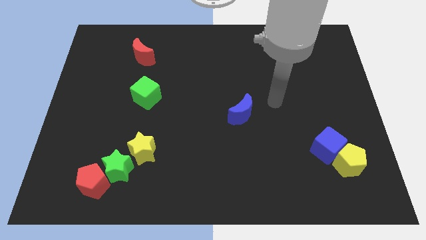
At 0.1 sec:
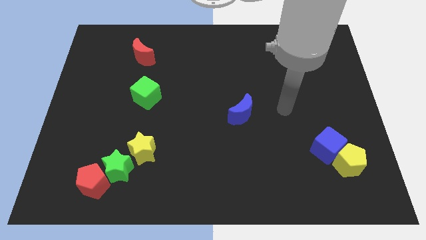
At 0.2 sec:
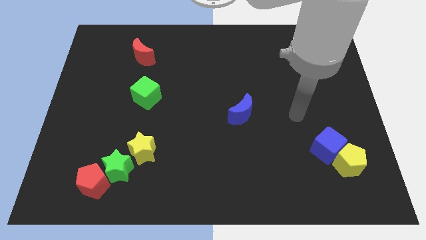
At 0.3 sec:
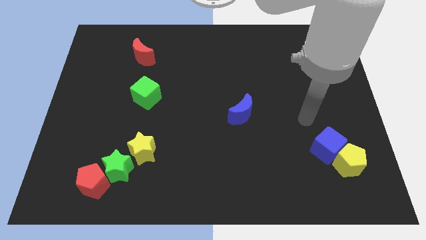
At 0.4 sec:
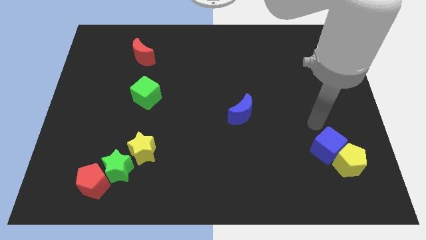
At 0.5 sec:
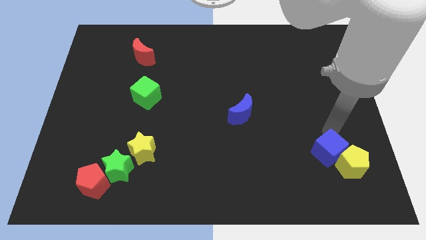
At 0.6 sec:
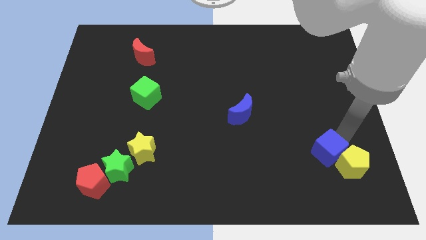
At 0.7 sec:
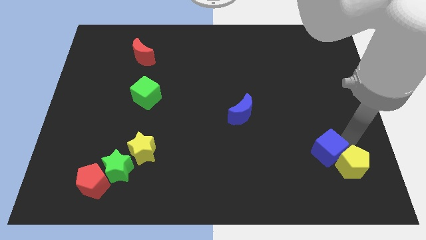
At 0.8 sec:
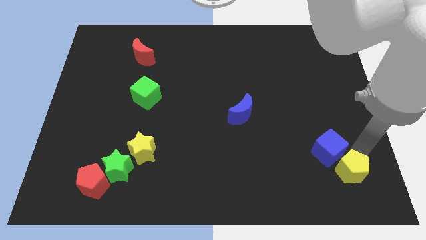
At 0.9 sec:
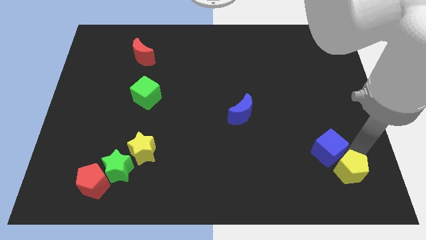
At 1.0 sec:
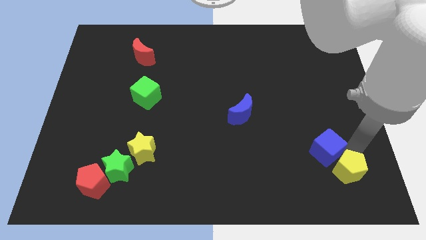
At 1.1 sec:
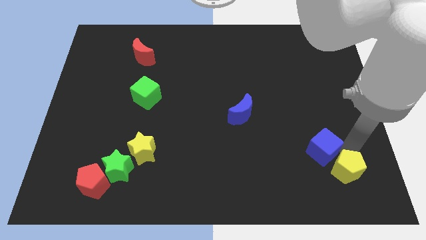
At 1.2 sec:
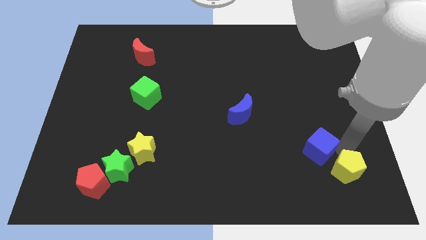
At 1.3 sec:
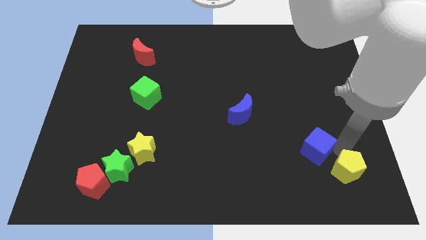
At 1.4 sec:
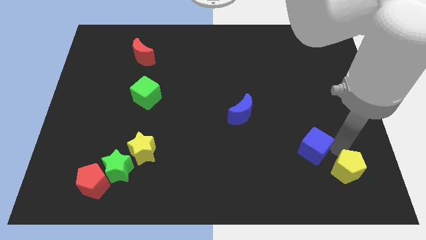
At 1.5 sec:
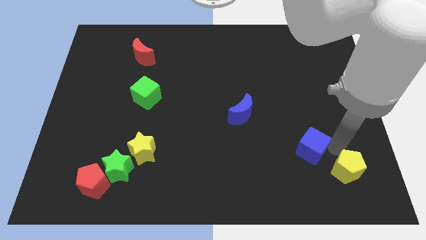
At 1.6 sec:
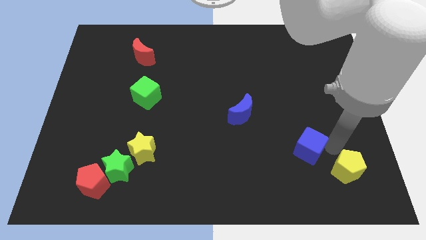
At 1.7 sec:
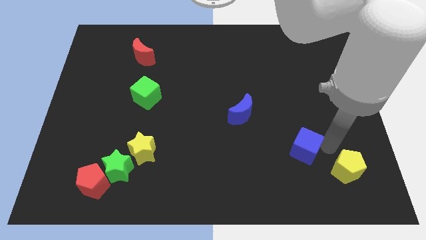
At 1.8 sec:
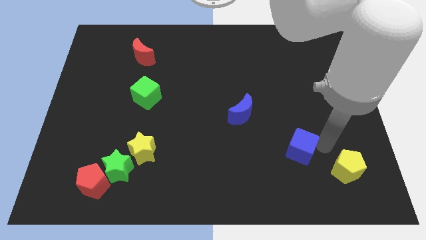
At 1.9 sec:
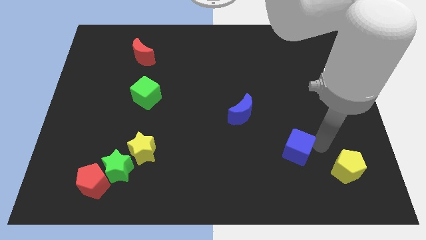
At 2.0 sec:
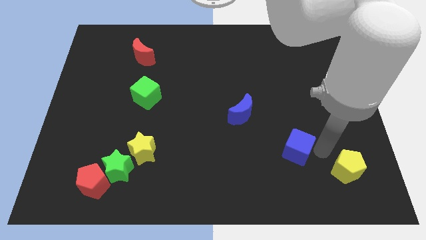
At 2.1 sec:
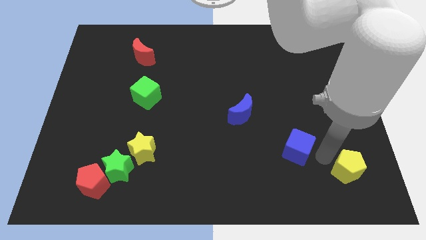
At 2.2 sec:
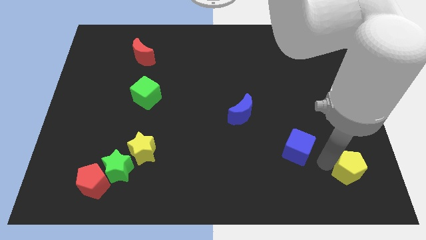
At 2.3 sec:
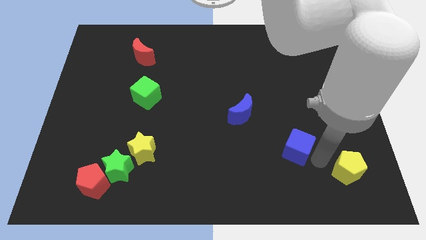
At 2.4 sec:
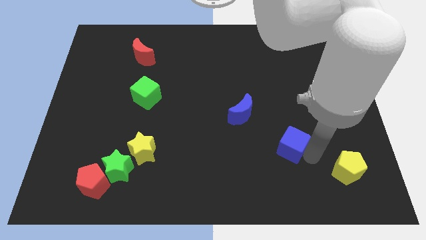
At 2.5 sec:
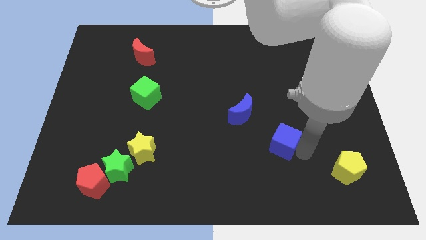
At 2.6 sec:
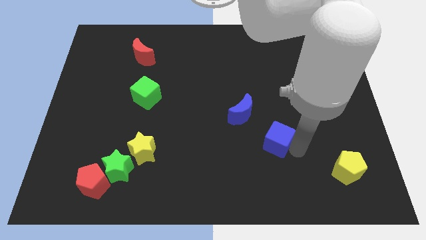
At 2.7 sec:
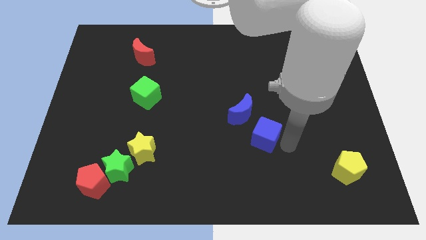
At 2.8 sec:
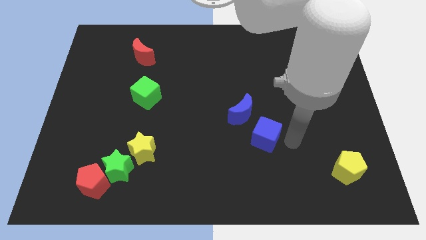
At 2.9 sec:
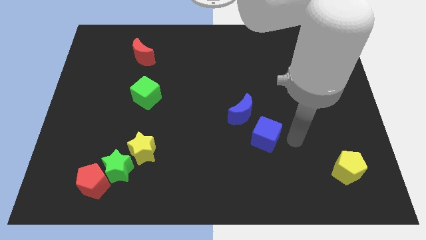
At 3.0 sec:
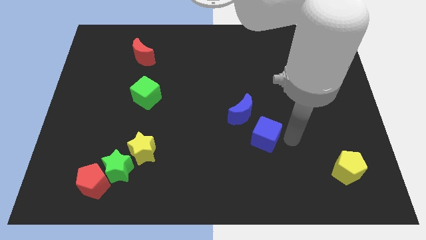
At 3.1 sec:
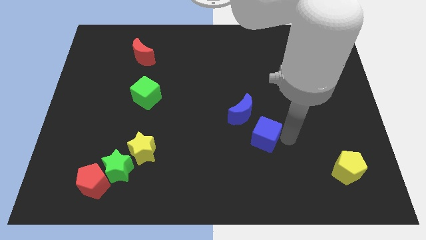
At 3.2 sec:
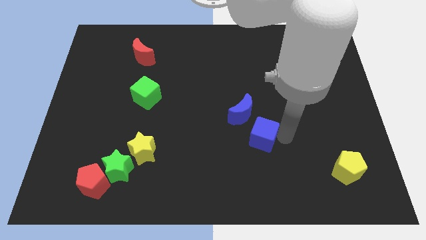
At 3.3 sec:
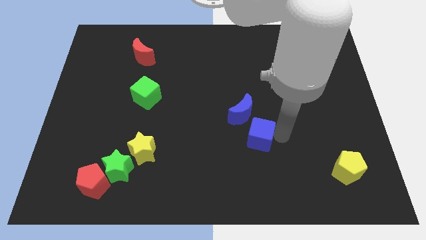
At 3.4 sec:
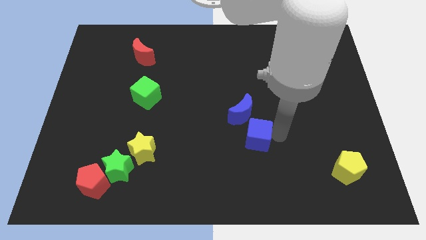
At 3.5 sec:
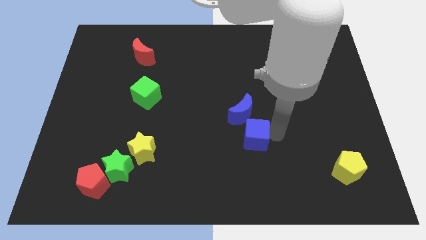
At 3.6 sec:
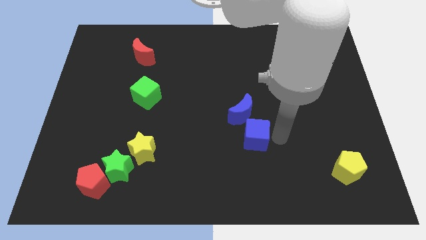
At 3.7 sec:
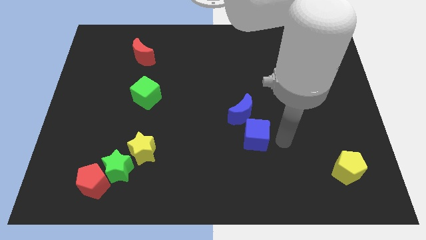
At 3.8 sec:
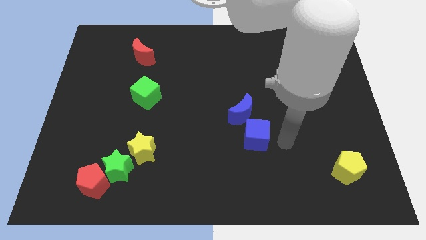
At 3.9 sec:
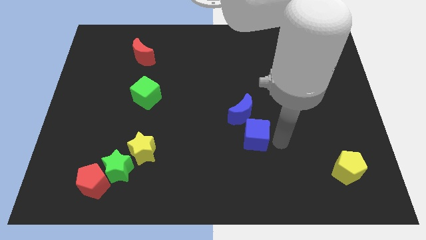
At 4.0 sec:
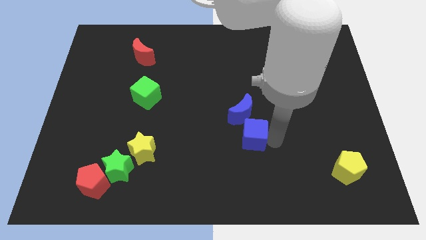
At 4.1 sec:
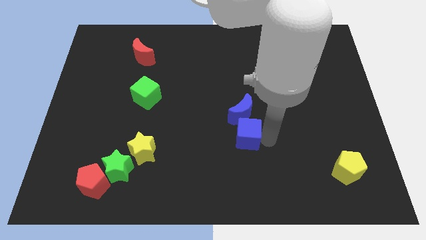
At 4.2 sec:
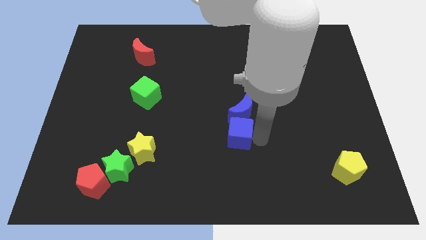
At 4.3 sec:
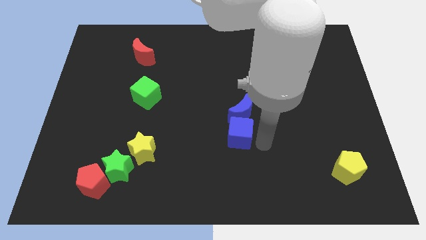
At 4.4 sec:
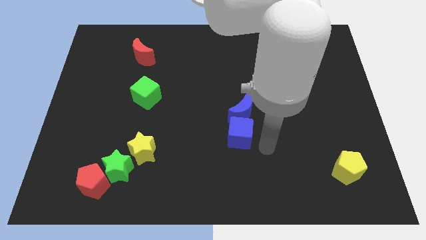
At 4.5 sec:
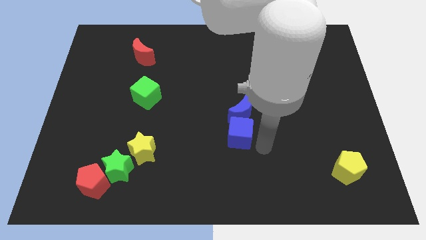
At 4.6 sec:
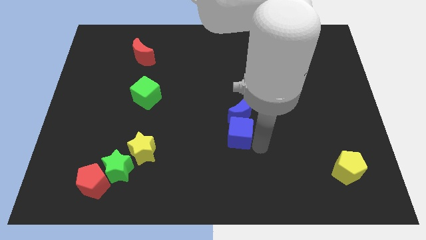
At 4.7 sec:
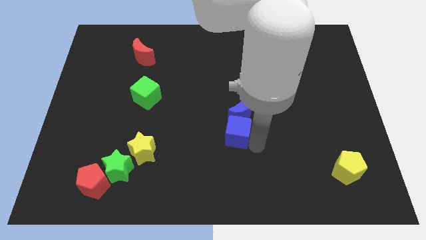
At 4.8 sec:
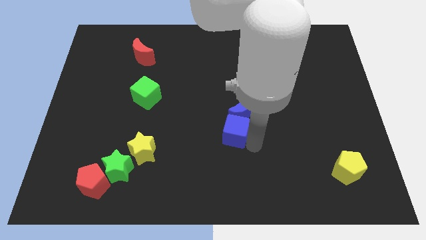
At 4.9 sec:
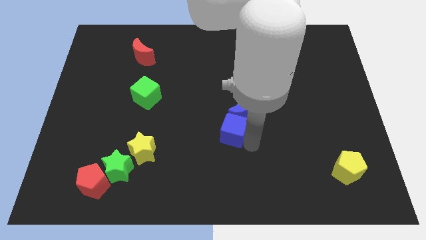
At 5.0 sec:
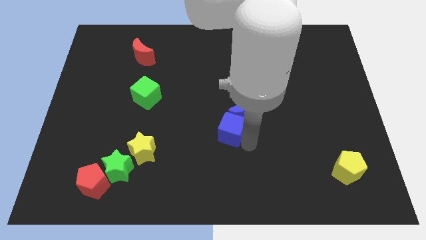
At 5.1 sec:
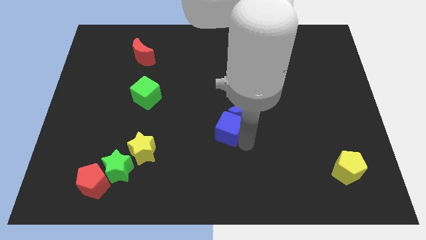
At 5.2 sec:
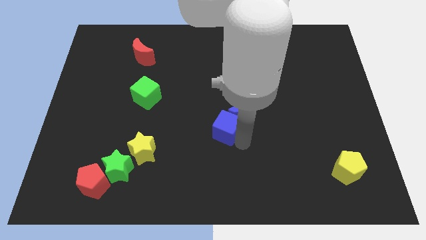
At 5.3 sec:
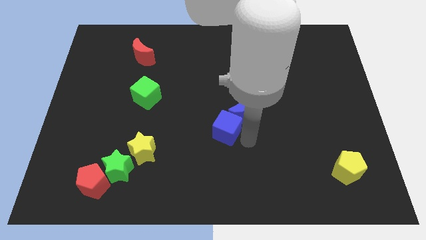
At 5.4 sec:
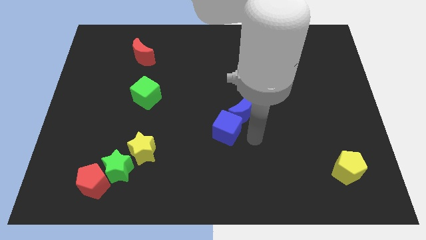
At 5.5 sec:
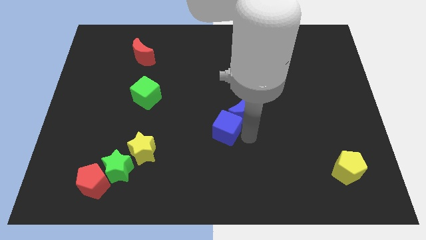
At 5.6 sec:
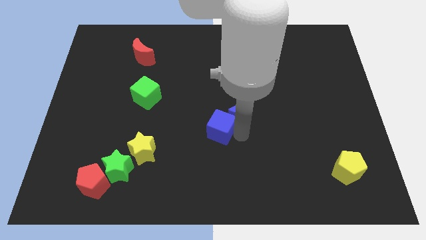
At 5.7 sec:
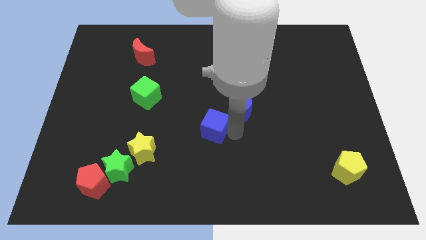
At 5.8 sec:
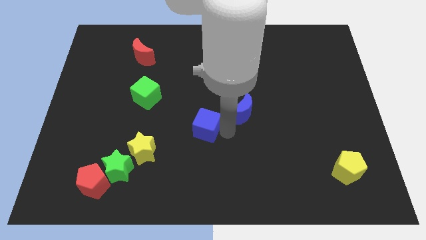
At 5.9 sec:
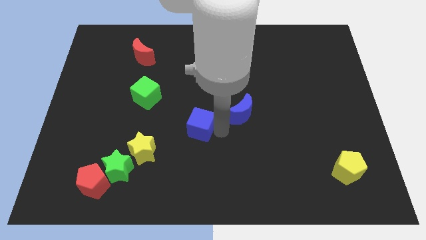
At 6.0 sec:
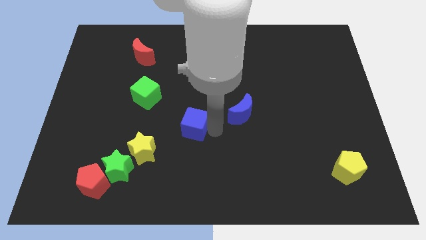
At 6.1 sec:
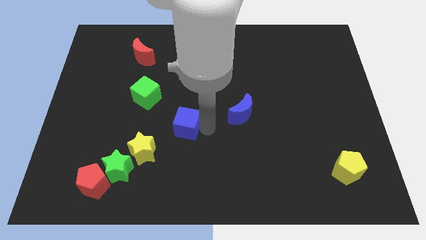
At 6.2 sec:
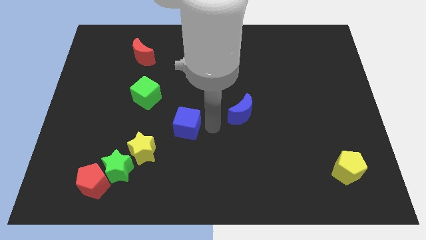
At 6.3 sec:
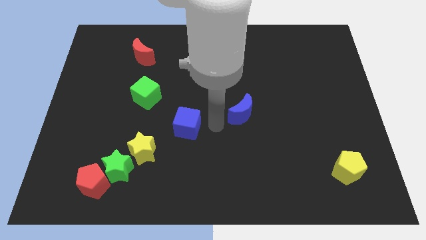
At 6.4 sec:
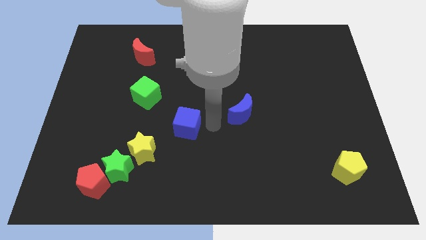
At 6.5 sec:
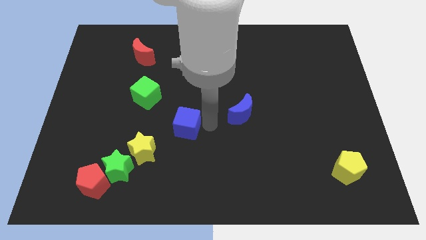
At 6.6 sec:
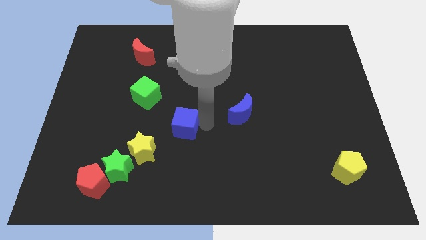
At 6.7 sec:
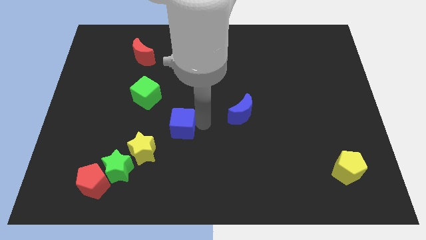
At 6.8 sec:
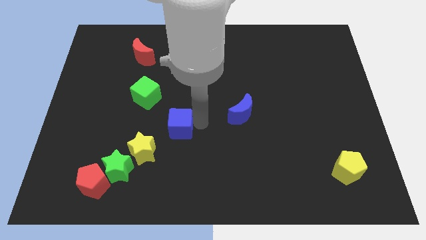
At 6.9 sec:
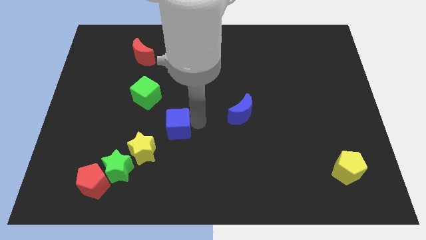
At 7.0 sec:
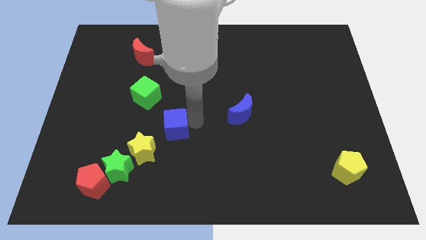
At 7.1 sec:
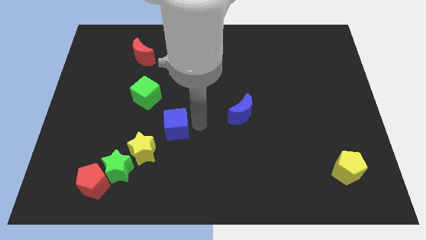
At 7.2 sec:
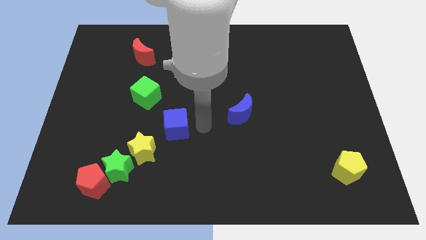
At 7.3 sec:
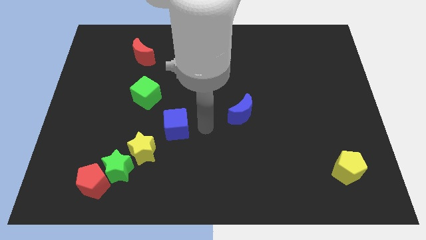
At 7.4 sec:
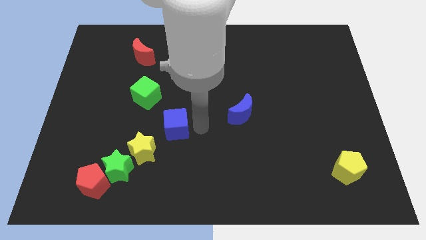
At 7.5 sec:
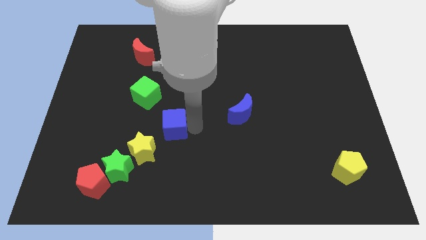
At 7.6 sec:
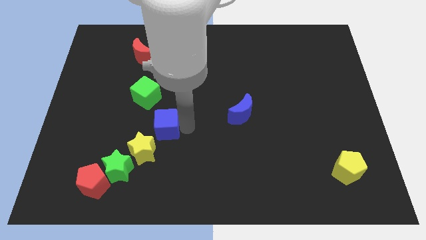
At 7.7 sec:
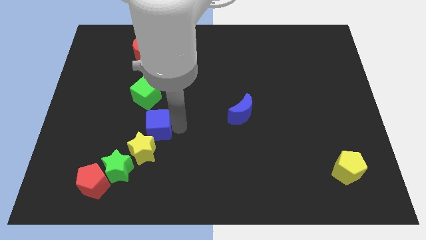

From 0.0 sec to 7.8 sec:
push the blue cube below the green cube
